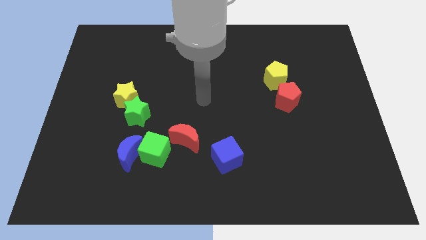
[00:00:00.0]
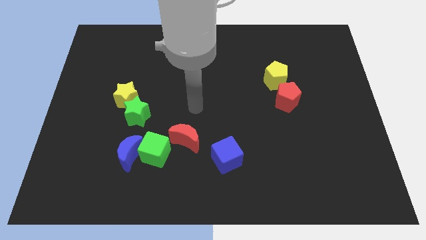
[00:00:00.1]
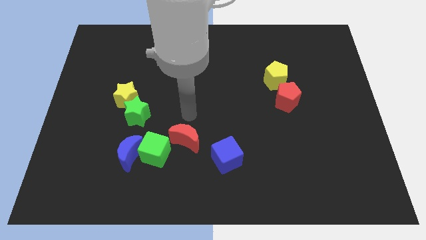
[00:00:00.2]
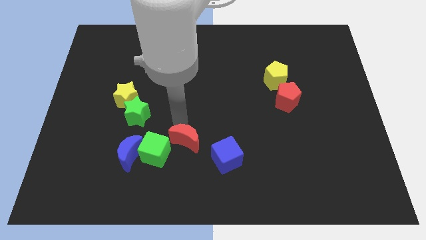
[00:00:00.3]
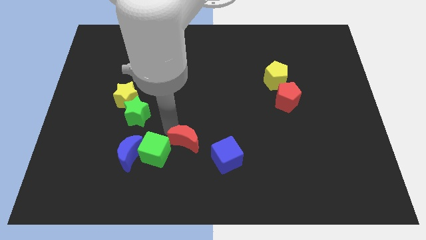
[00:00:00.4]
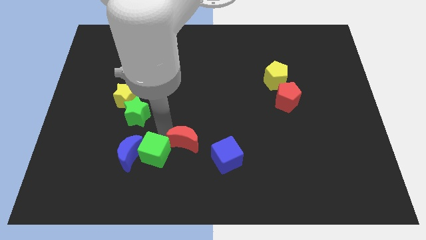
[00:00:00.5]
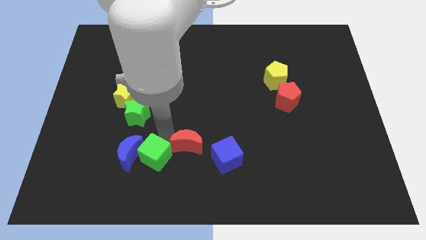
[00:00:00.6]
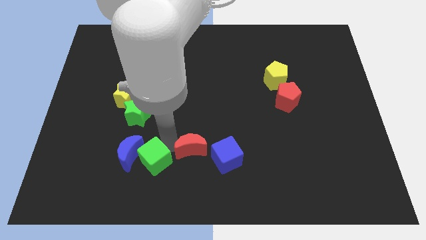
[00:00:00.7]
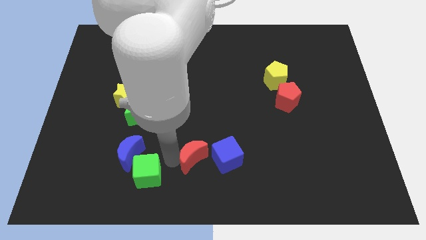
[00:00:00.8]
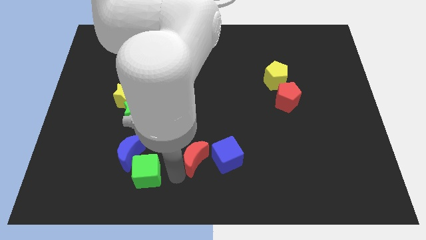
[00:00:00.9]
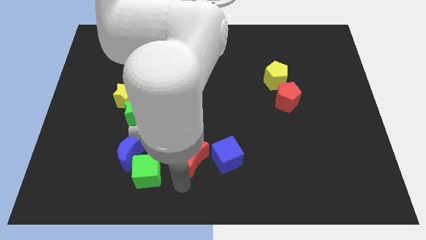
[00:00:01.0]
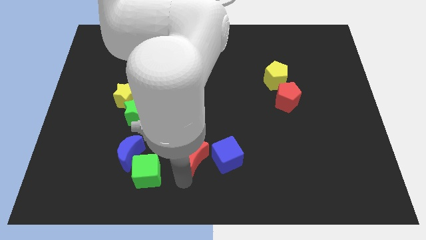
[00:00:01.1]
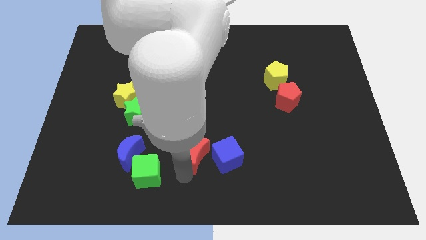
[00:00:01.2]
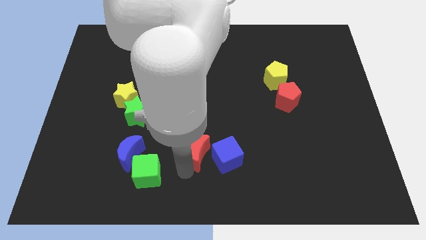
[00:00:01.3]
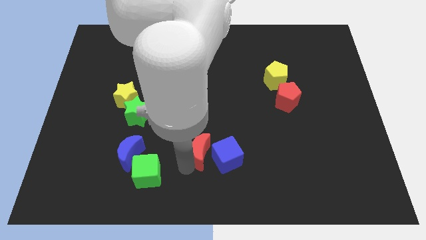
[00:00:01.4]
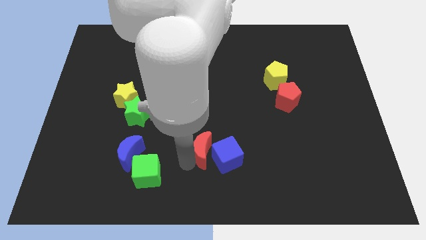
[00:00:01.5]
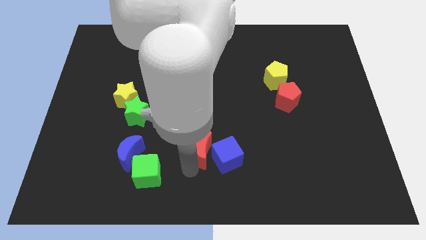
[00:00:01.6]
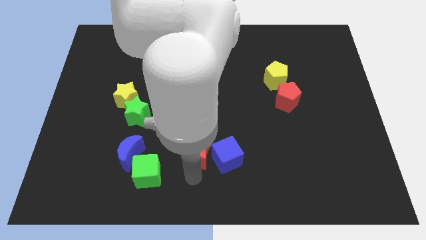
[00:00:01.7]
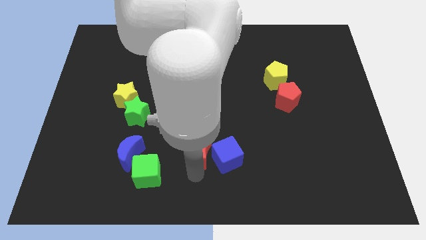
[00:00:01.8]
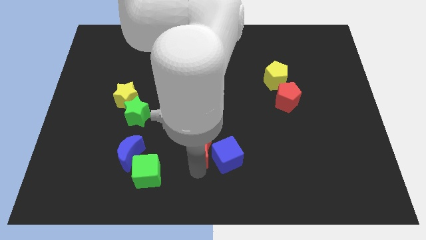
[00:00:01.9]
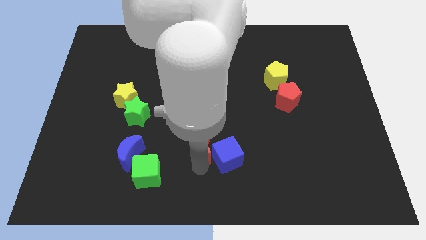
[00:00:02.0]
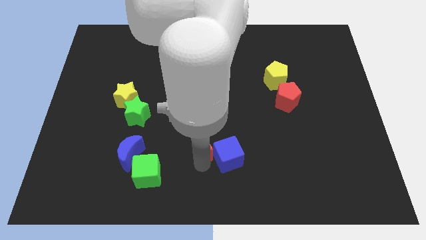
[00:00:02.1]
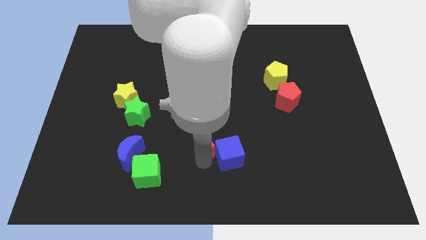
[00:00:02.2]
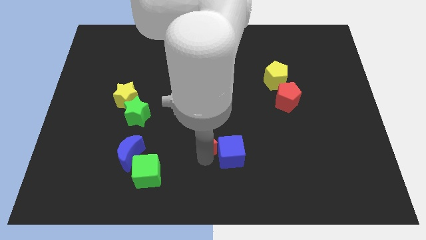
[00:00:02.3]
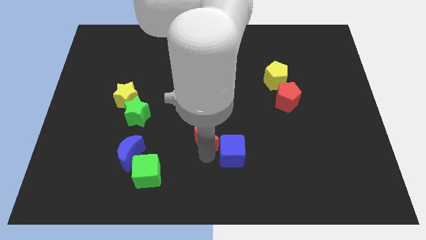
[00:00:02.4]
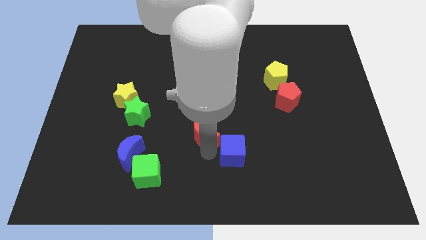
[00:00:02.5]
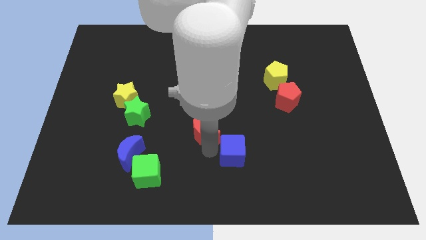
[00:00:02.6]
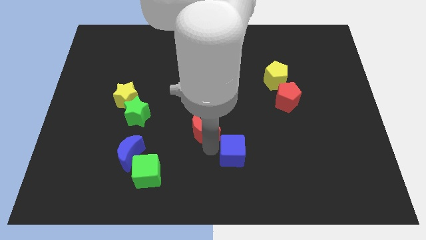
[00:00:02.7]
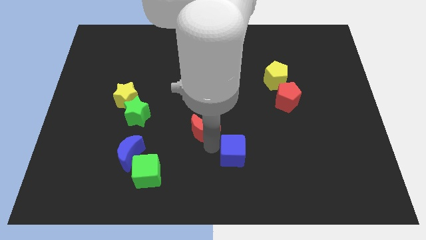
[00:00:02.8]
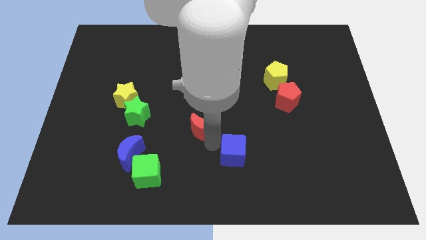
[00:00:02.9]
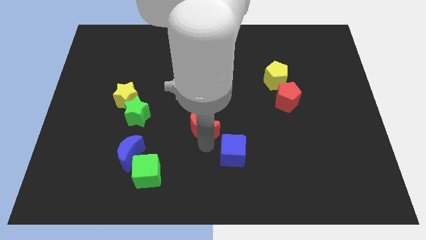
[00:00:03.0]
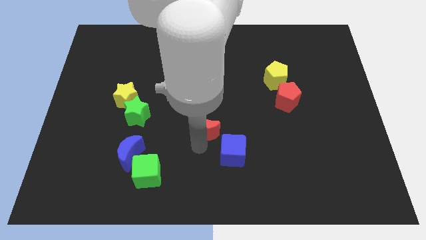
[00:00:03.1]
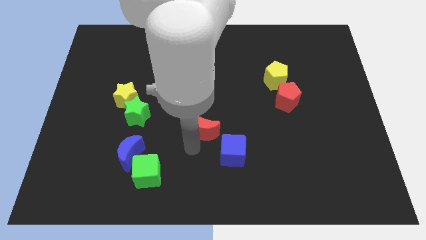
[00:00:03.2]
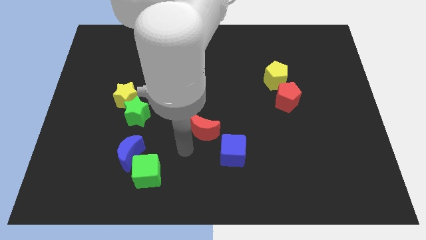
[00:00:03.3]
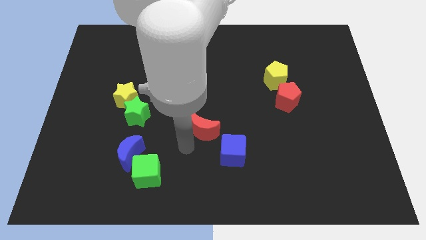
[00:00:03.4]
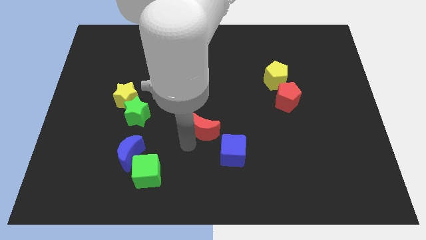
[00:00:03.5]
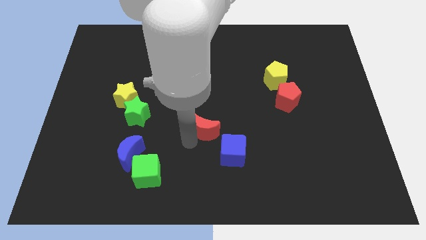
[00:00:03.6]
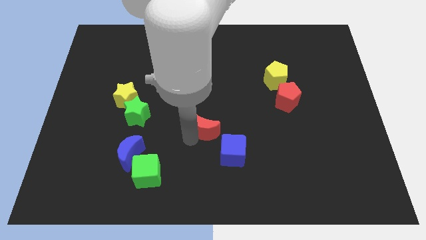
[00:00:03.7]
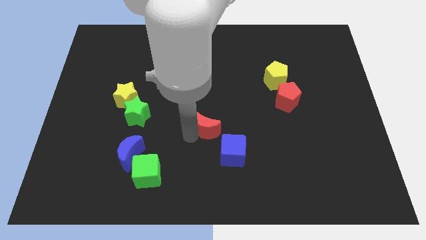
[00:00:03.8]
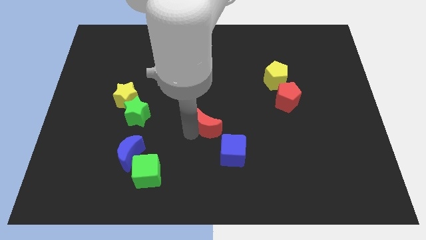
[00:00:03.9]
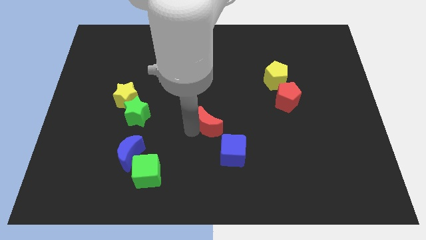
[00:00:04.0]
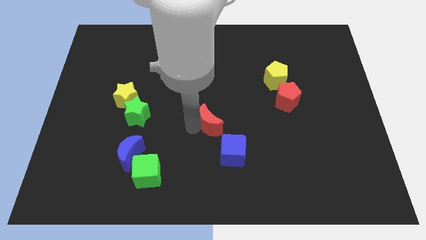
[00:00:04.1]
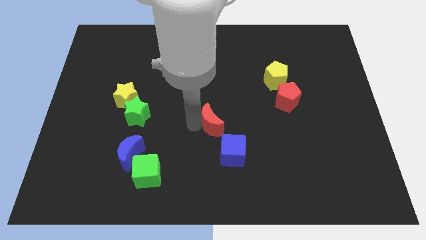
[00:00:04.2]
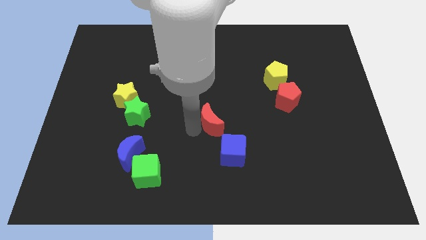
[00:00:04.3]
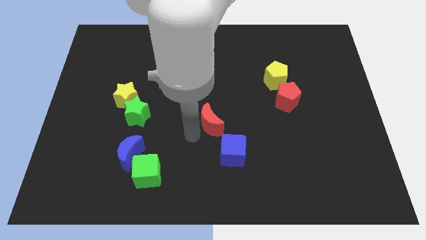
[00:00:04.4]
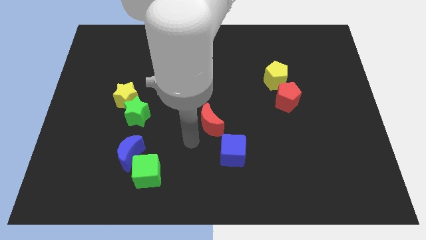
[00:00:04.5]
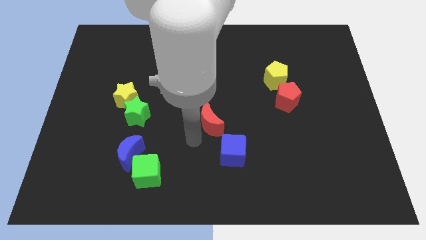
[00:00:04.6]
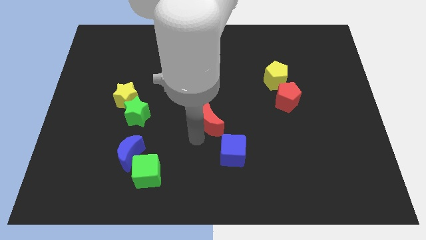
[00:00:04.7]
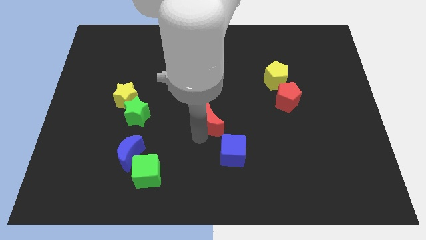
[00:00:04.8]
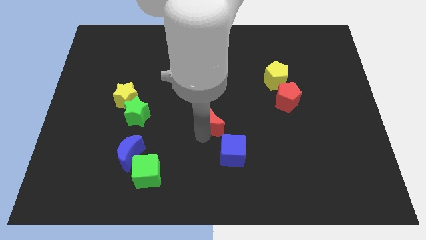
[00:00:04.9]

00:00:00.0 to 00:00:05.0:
push the red moon a little bit upwards and right

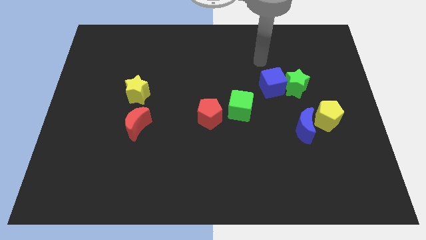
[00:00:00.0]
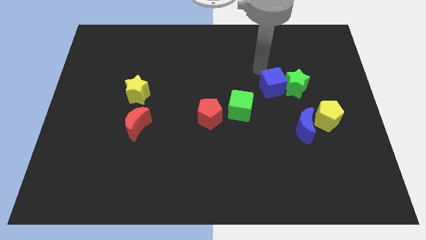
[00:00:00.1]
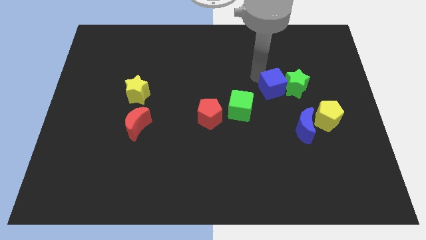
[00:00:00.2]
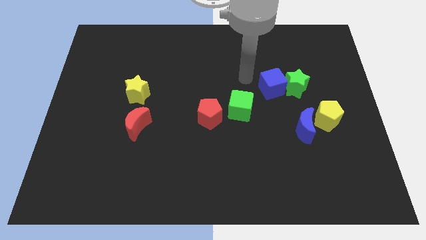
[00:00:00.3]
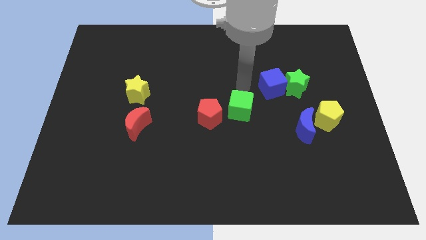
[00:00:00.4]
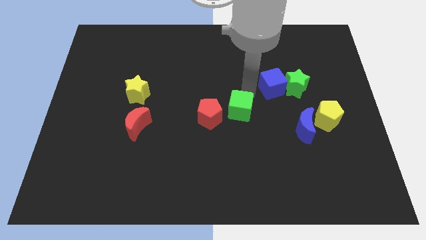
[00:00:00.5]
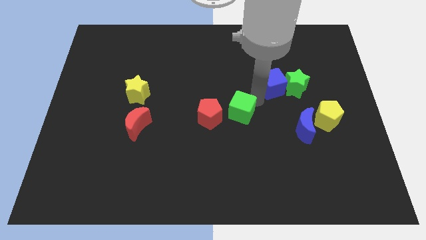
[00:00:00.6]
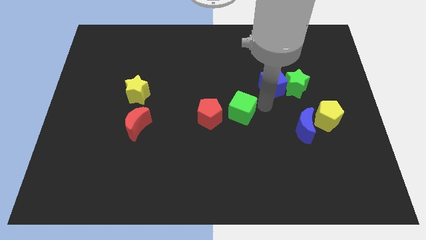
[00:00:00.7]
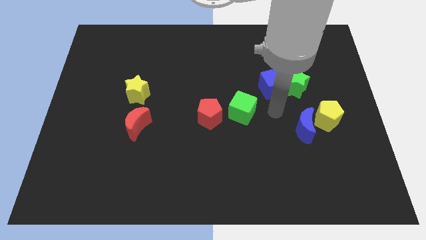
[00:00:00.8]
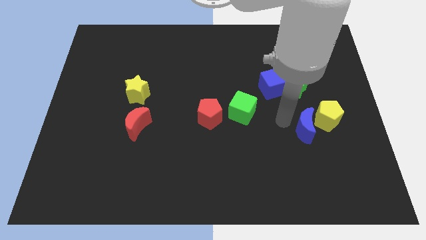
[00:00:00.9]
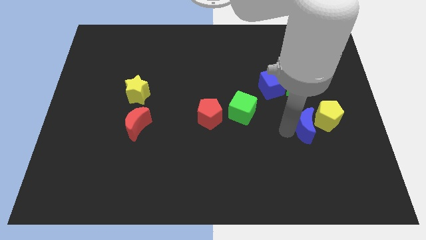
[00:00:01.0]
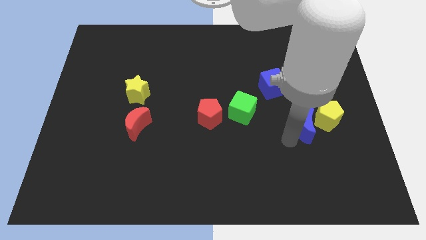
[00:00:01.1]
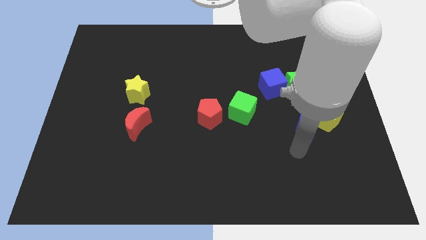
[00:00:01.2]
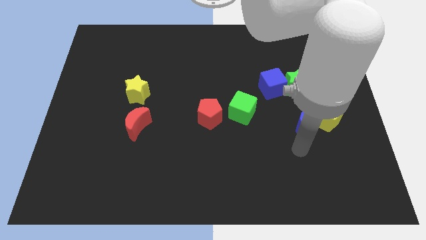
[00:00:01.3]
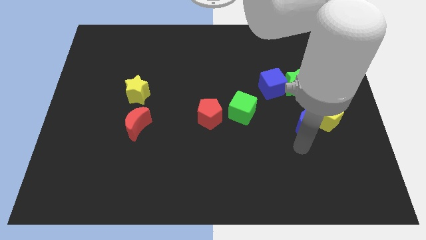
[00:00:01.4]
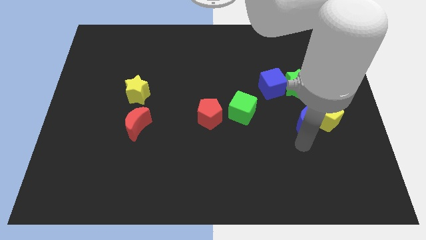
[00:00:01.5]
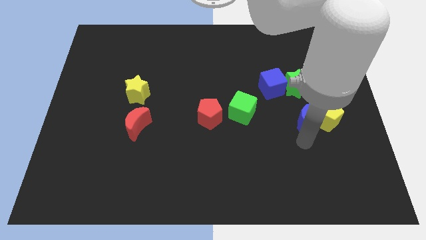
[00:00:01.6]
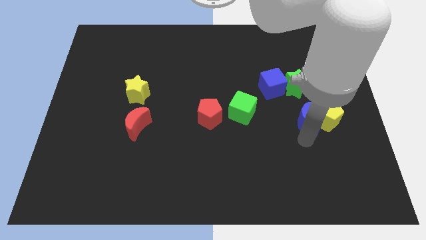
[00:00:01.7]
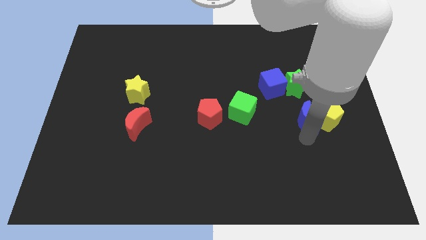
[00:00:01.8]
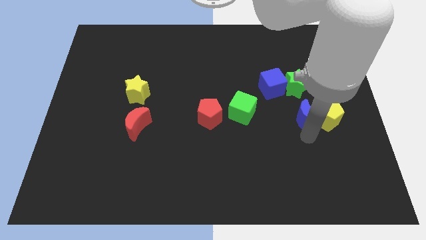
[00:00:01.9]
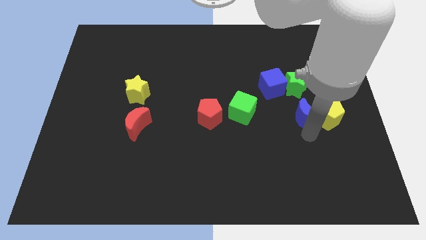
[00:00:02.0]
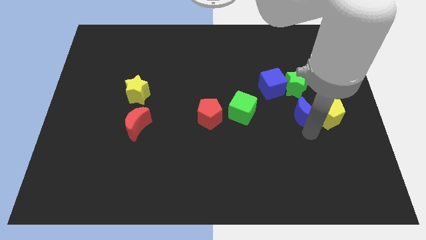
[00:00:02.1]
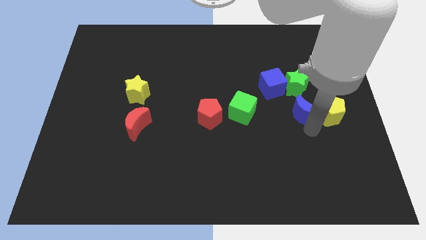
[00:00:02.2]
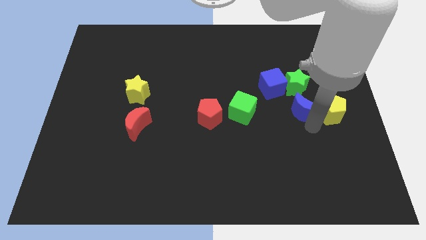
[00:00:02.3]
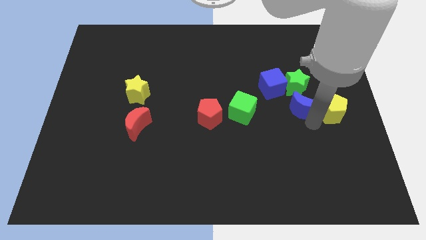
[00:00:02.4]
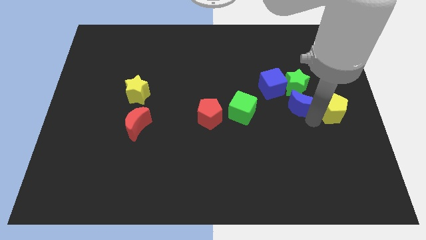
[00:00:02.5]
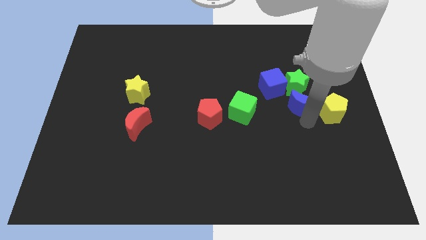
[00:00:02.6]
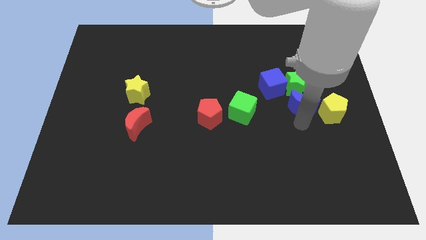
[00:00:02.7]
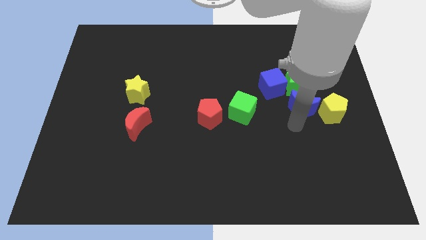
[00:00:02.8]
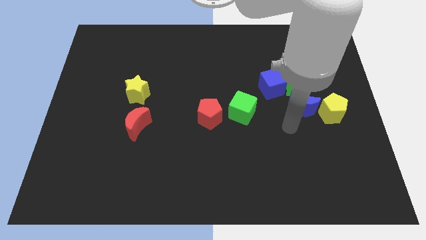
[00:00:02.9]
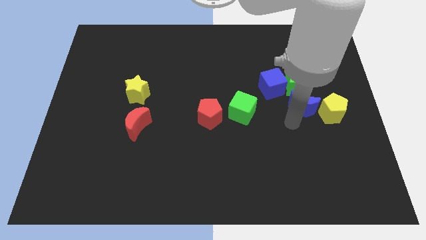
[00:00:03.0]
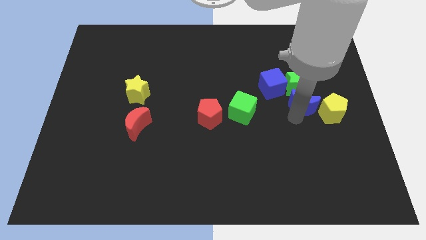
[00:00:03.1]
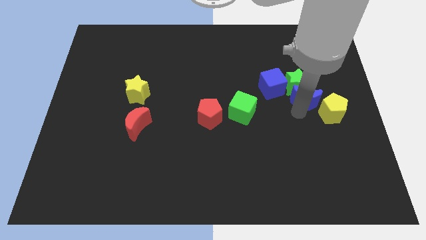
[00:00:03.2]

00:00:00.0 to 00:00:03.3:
slightly move the blue moon upwards
